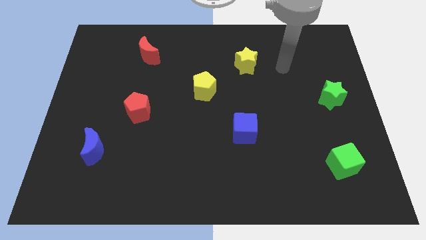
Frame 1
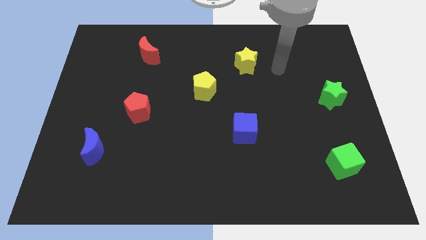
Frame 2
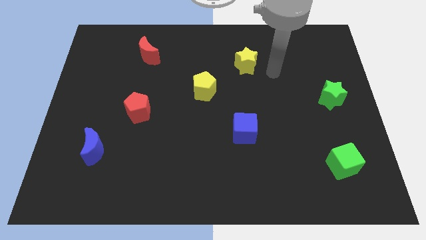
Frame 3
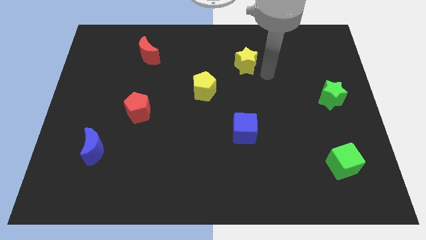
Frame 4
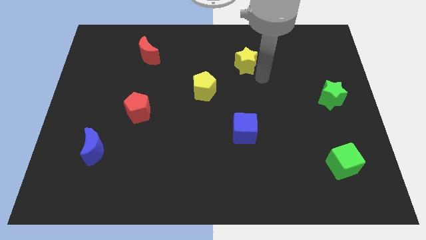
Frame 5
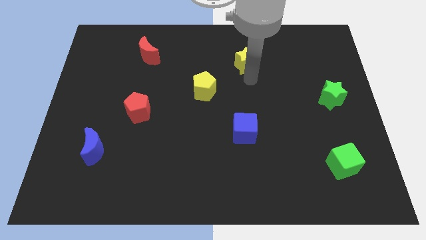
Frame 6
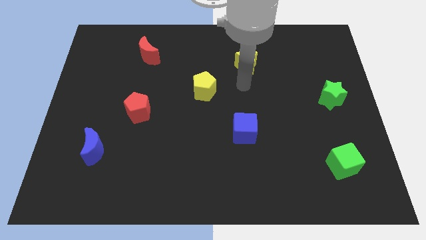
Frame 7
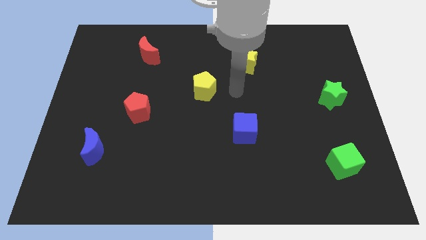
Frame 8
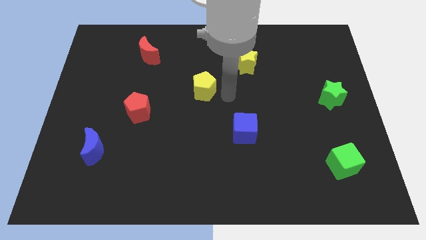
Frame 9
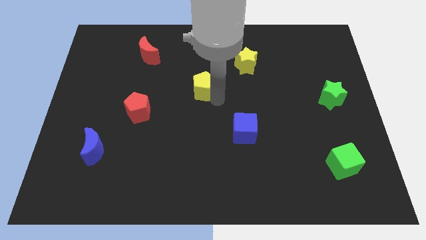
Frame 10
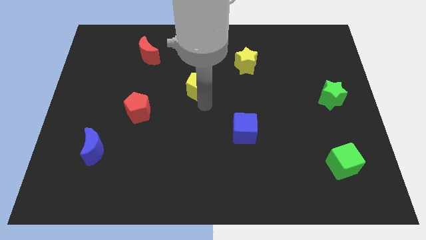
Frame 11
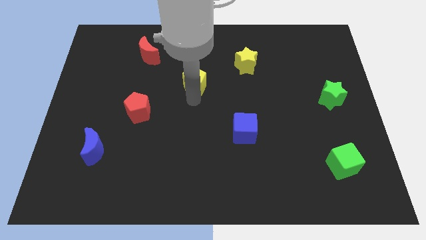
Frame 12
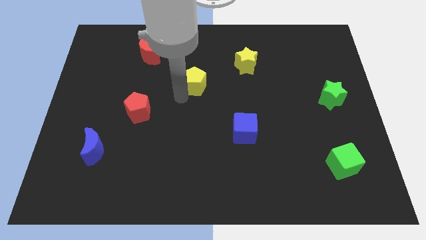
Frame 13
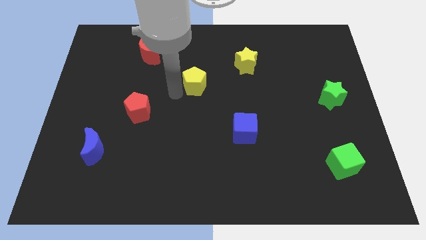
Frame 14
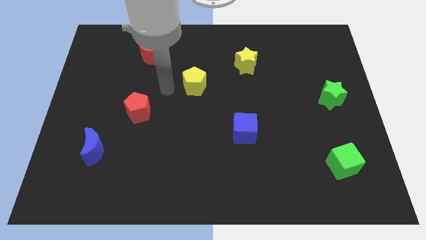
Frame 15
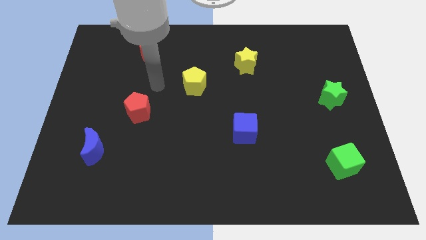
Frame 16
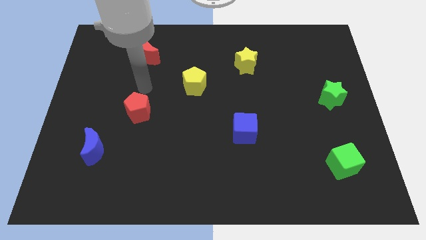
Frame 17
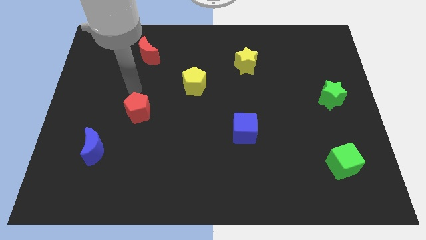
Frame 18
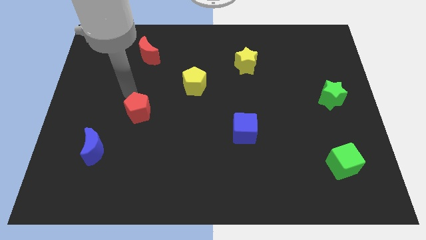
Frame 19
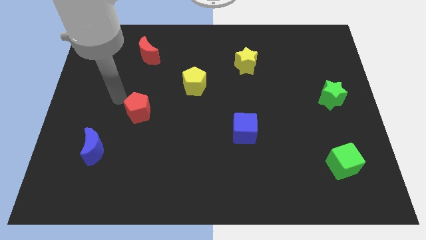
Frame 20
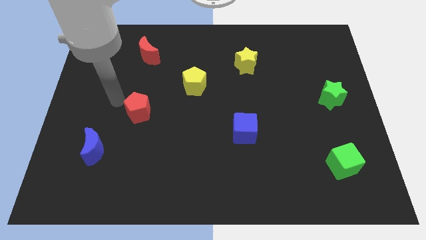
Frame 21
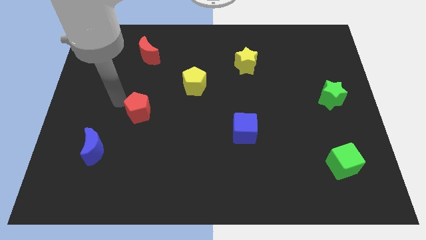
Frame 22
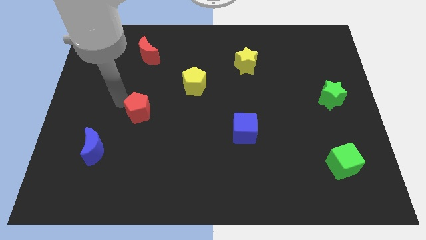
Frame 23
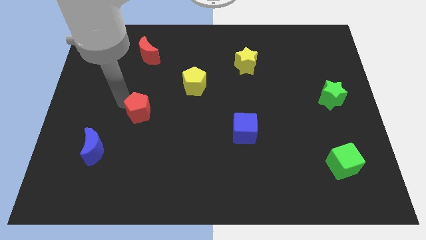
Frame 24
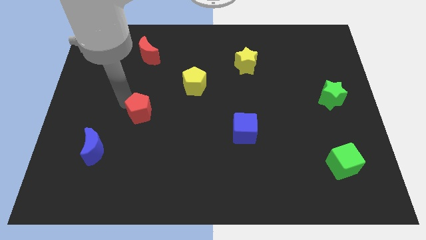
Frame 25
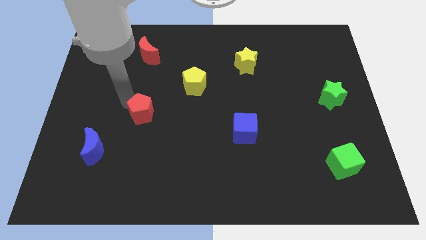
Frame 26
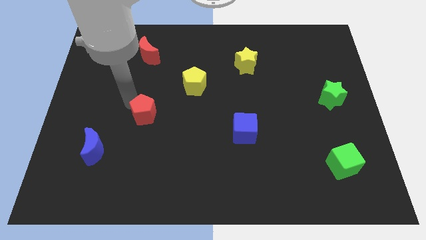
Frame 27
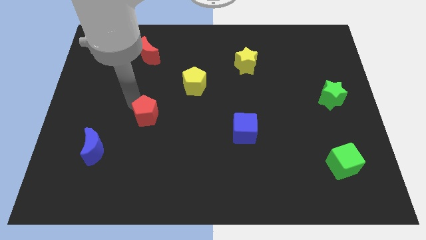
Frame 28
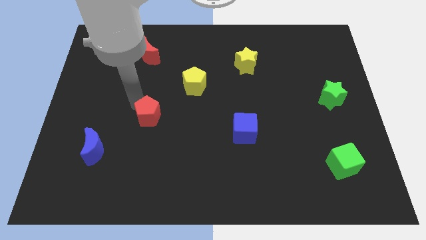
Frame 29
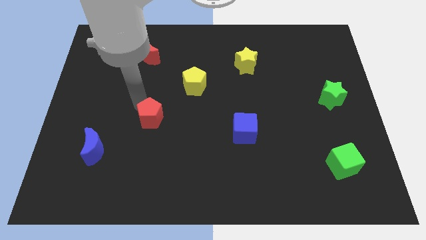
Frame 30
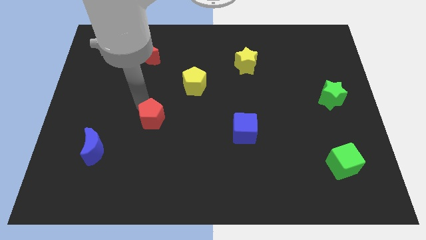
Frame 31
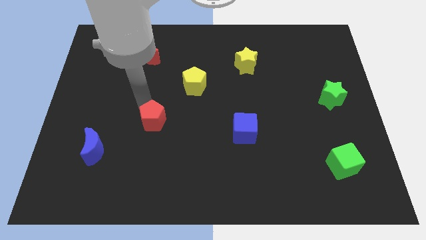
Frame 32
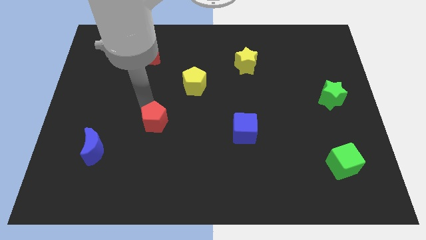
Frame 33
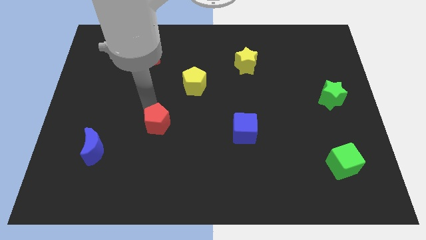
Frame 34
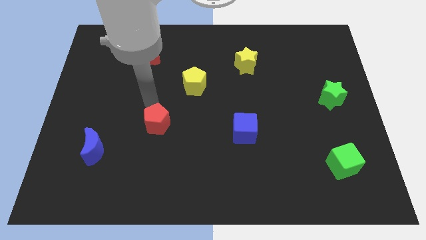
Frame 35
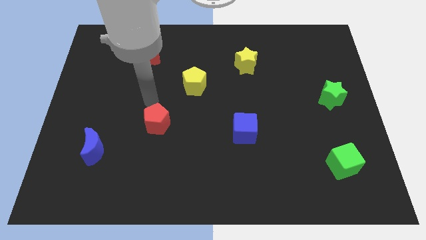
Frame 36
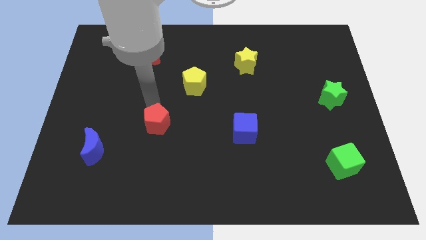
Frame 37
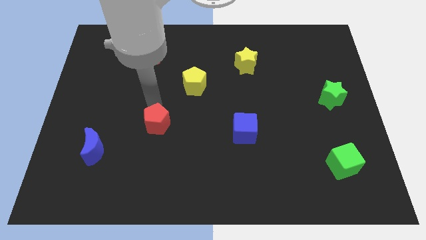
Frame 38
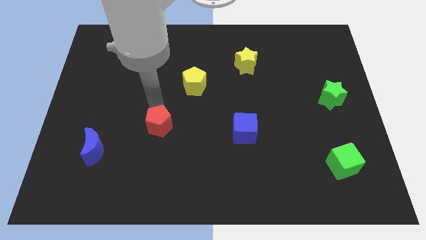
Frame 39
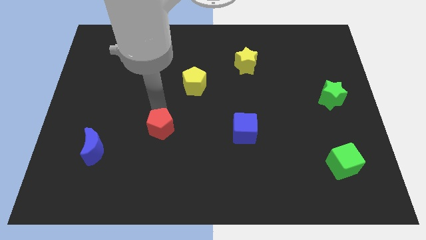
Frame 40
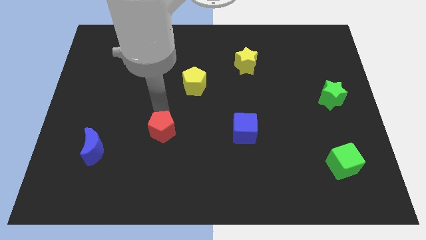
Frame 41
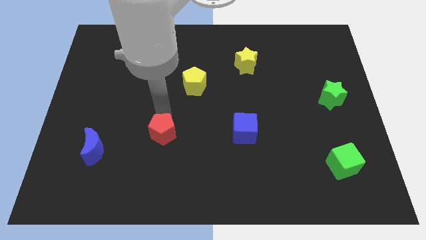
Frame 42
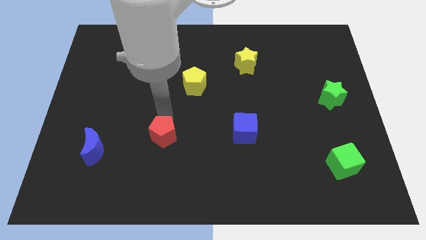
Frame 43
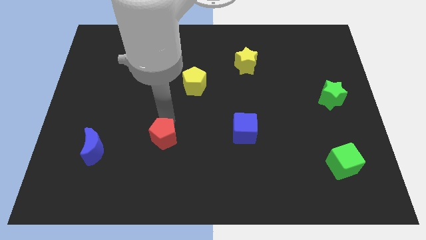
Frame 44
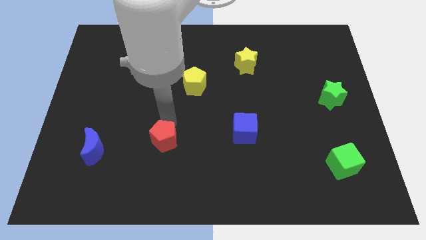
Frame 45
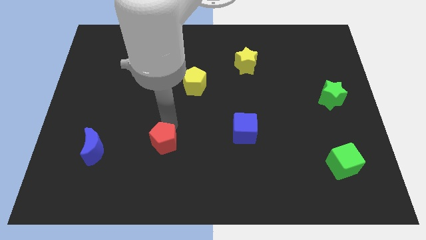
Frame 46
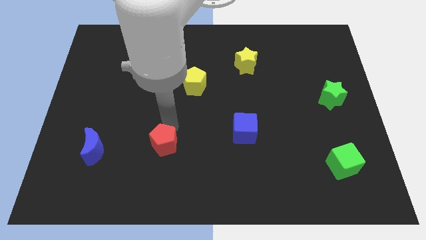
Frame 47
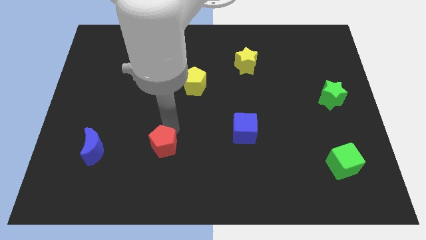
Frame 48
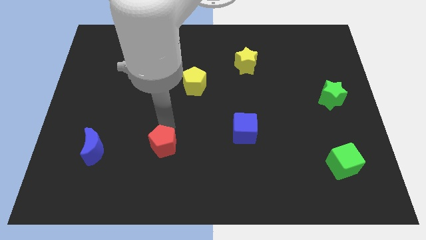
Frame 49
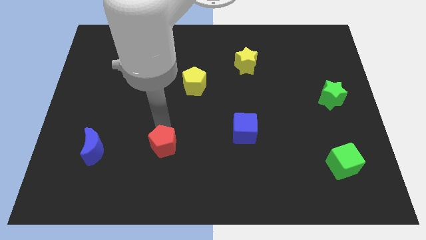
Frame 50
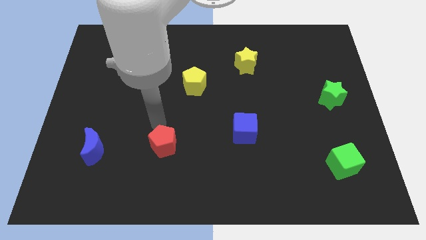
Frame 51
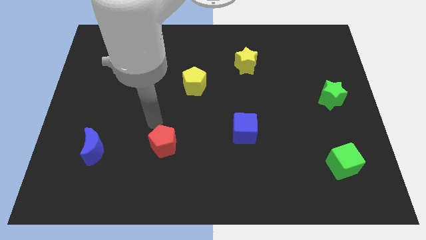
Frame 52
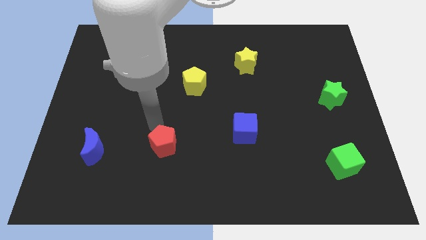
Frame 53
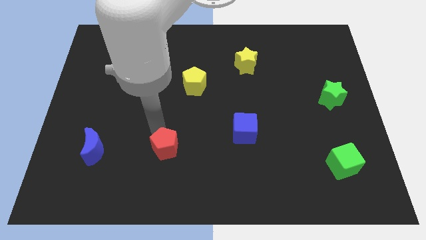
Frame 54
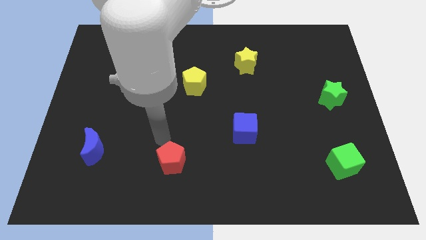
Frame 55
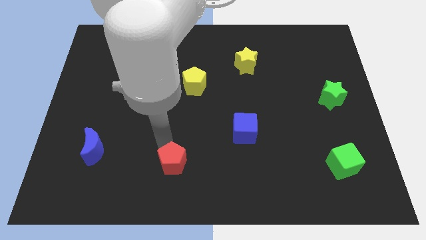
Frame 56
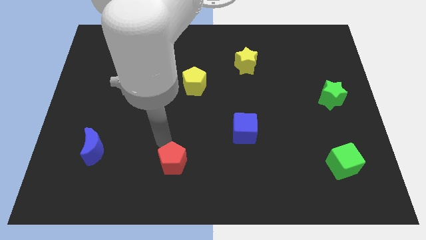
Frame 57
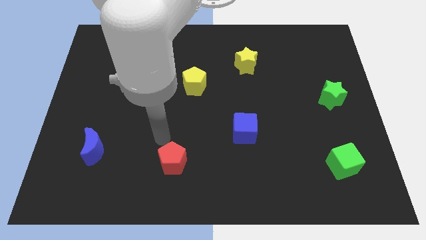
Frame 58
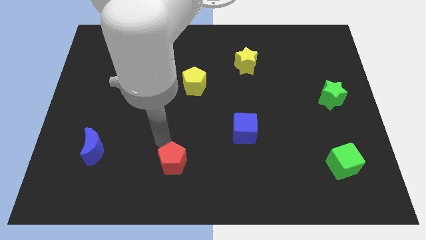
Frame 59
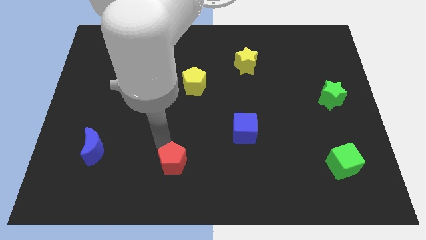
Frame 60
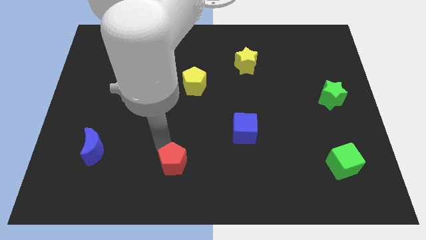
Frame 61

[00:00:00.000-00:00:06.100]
push the red pentagon to the bottom
